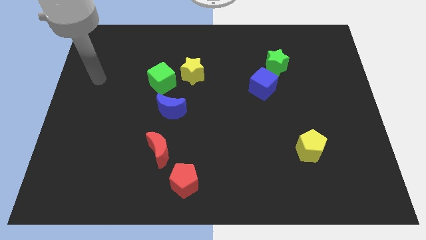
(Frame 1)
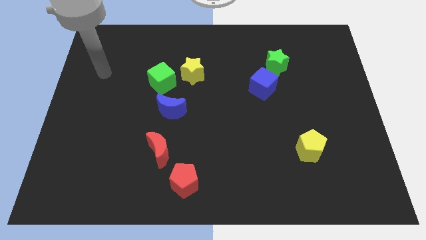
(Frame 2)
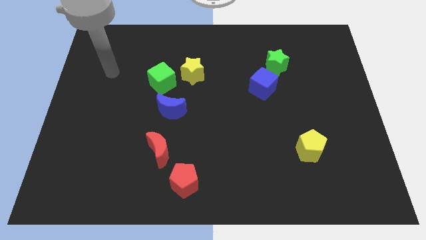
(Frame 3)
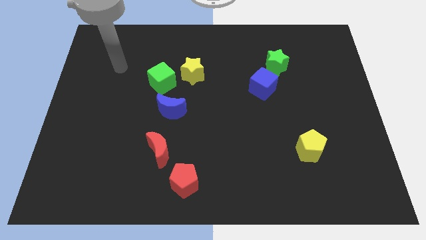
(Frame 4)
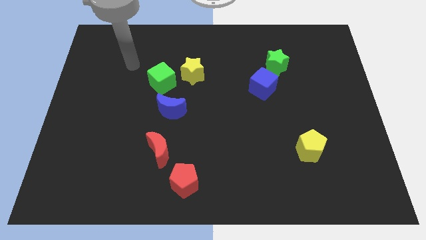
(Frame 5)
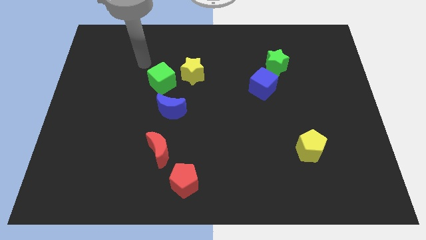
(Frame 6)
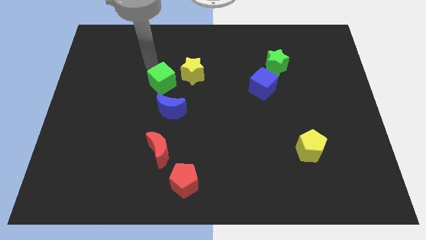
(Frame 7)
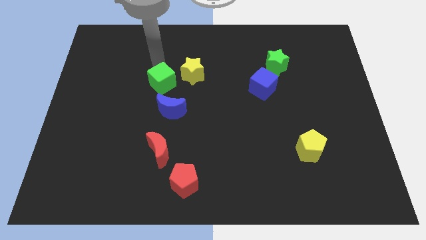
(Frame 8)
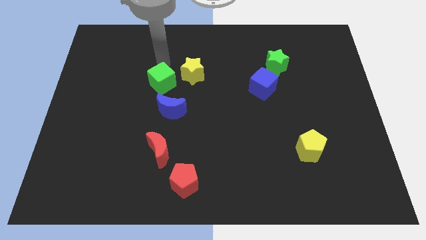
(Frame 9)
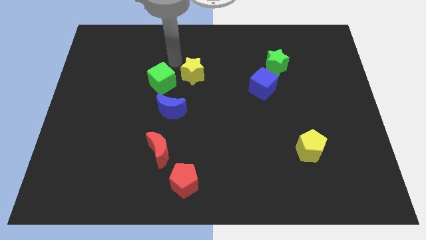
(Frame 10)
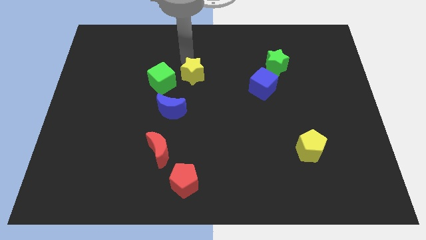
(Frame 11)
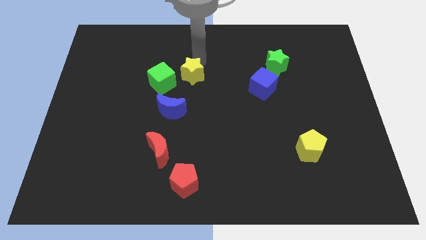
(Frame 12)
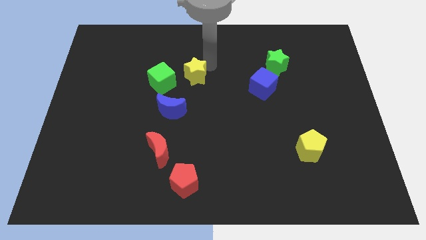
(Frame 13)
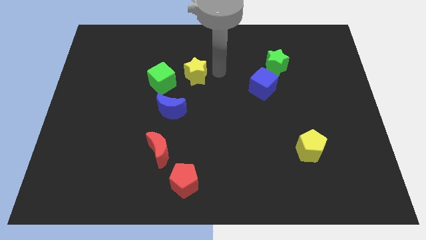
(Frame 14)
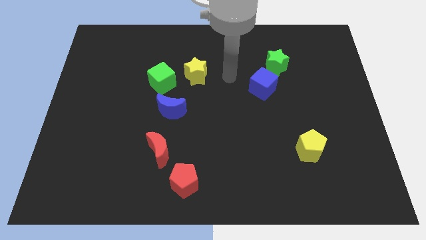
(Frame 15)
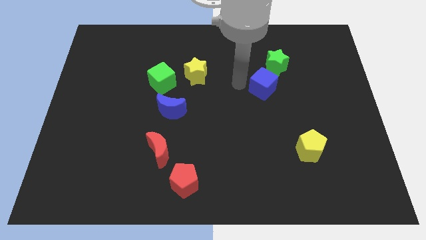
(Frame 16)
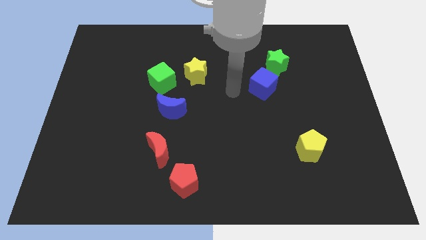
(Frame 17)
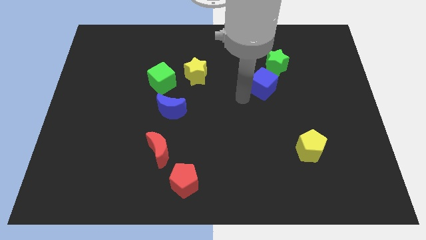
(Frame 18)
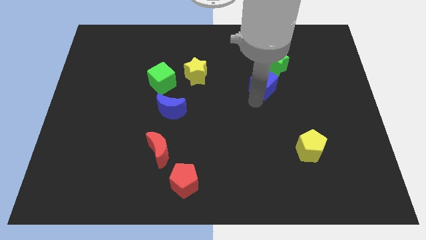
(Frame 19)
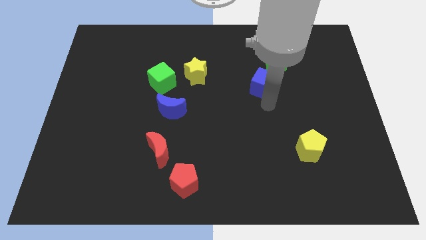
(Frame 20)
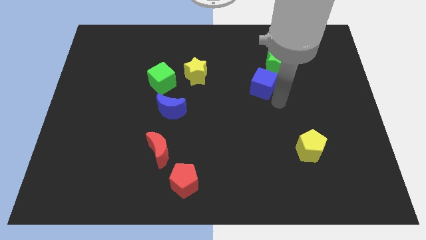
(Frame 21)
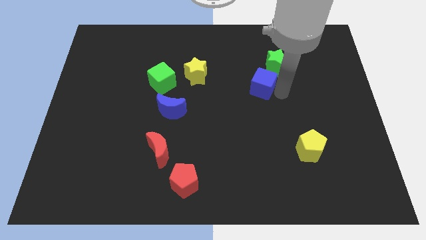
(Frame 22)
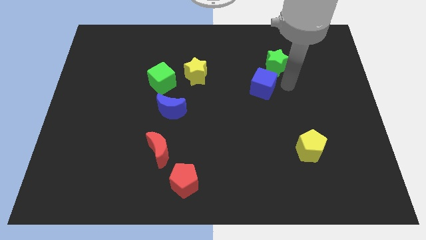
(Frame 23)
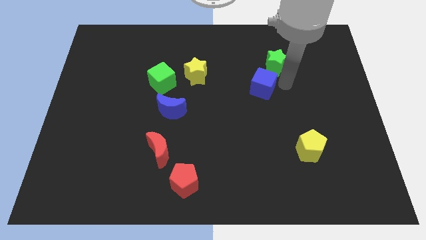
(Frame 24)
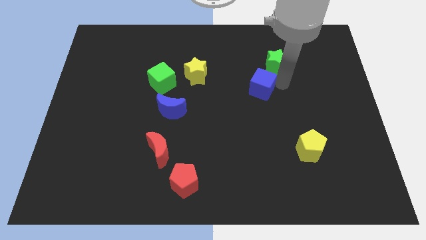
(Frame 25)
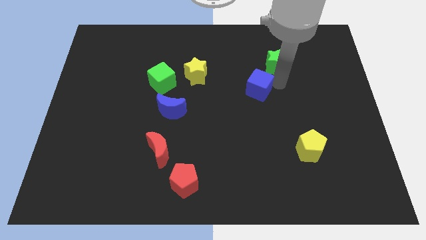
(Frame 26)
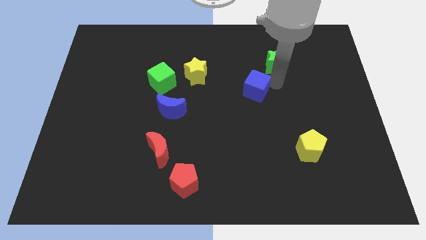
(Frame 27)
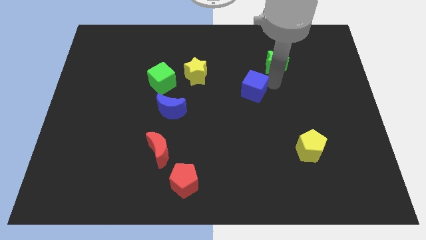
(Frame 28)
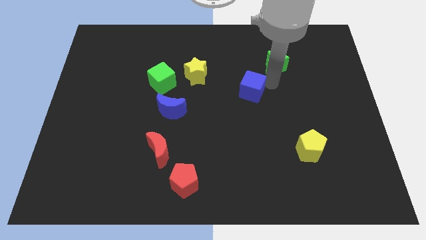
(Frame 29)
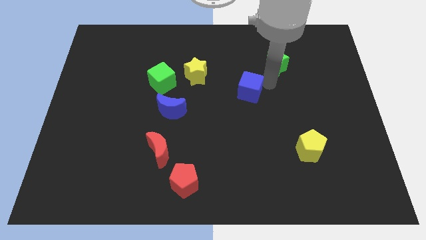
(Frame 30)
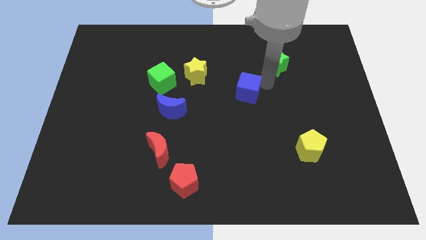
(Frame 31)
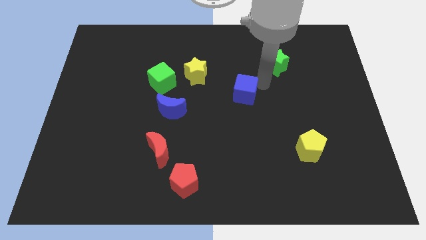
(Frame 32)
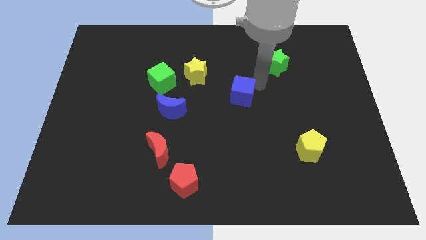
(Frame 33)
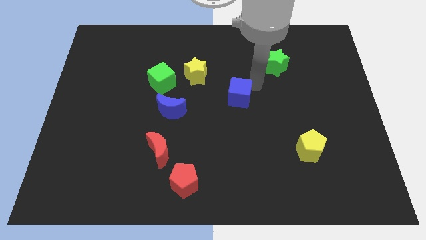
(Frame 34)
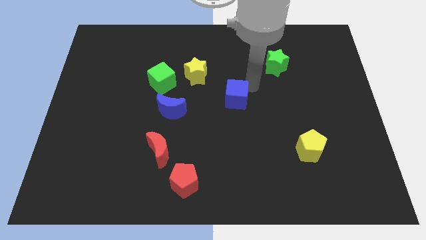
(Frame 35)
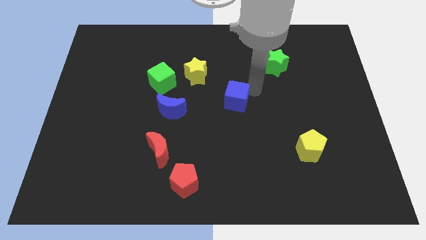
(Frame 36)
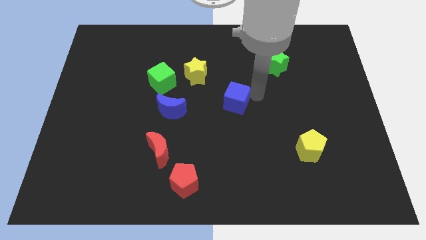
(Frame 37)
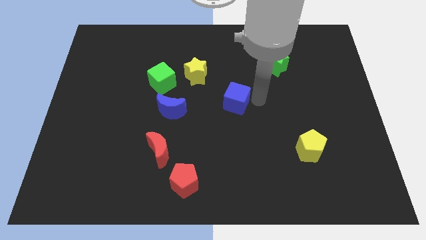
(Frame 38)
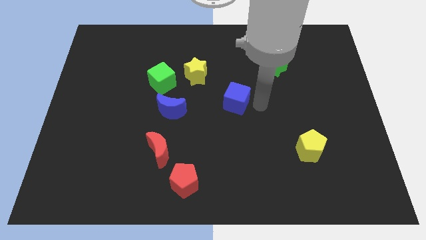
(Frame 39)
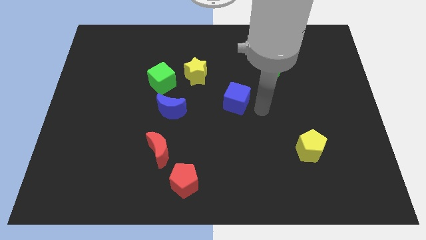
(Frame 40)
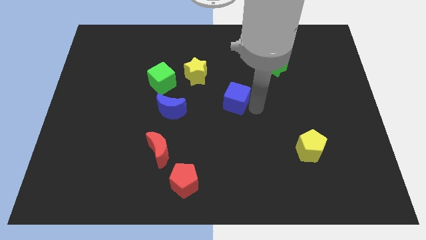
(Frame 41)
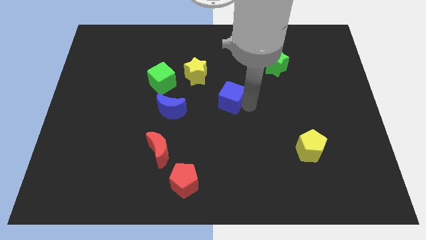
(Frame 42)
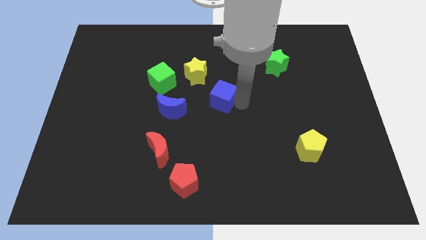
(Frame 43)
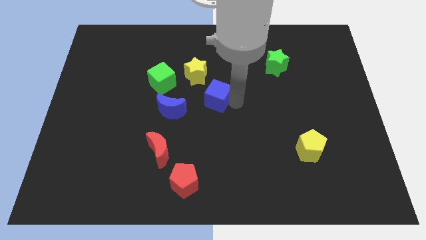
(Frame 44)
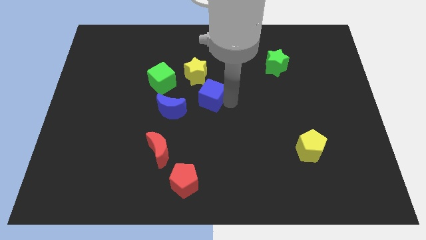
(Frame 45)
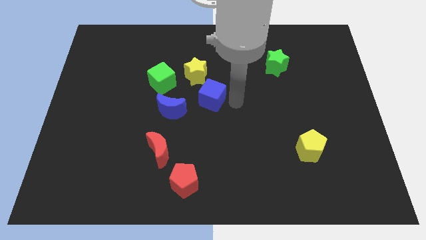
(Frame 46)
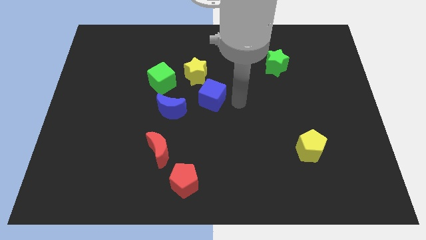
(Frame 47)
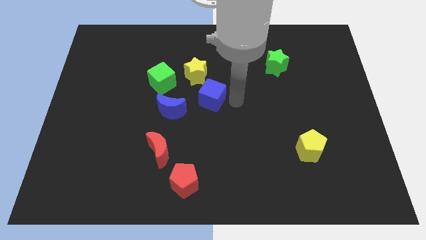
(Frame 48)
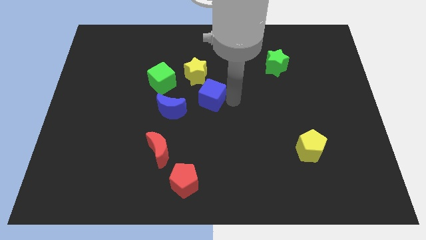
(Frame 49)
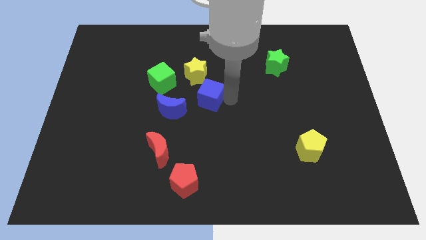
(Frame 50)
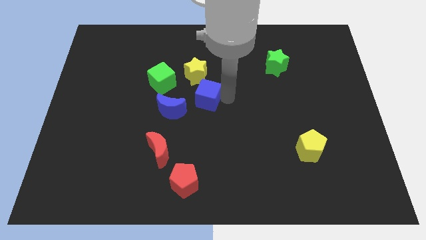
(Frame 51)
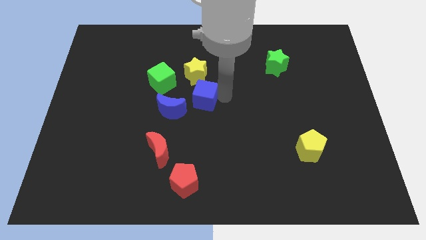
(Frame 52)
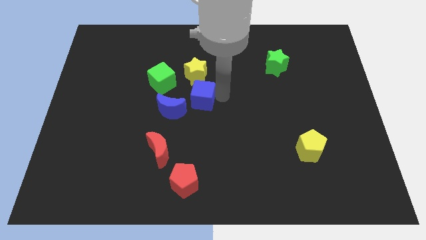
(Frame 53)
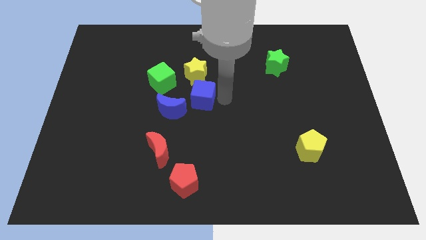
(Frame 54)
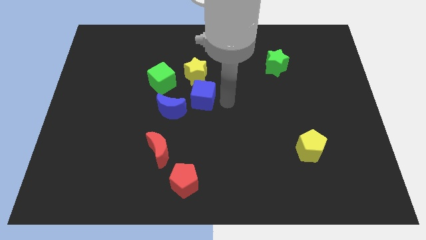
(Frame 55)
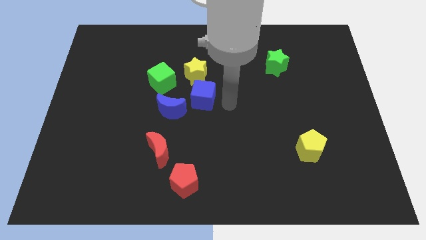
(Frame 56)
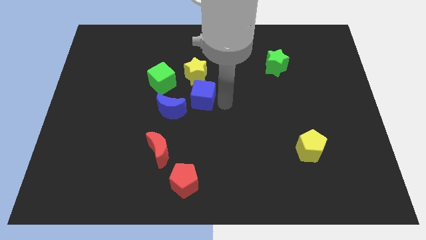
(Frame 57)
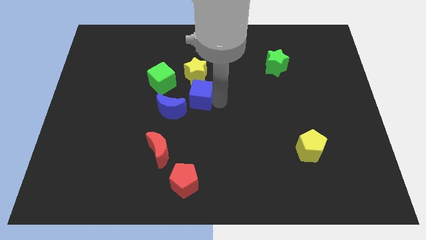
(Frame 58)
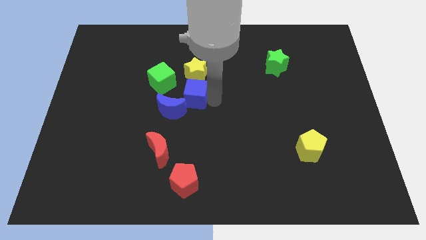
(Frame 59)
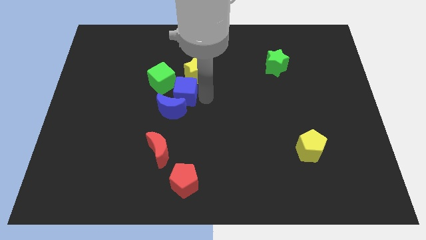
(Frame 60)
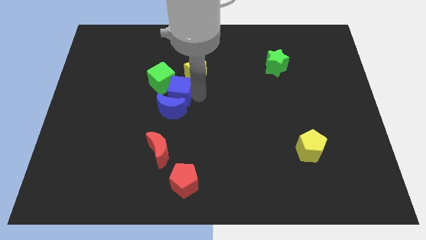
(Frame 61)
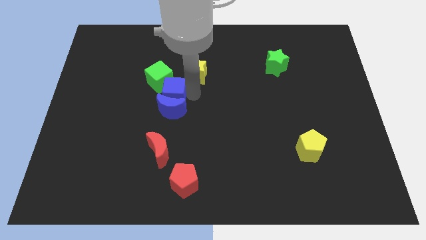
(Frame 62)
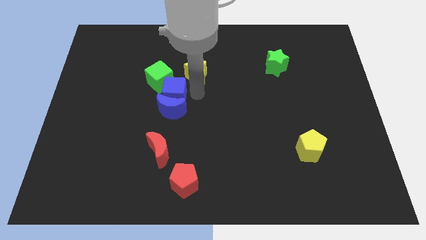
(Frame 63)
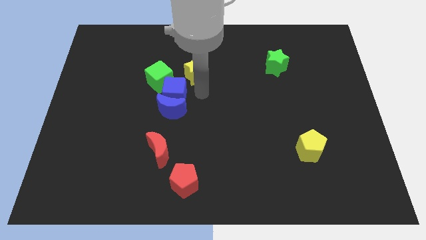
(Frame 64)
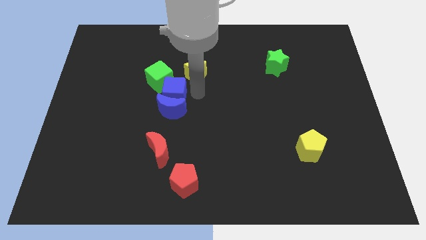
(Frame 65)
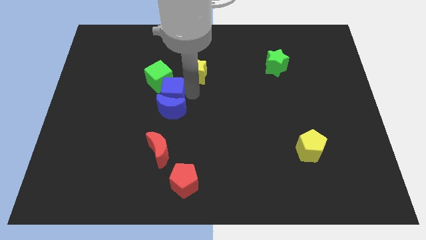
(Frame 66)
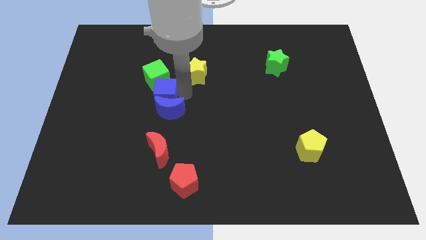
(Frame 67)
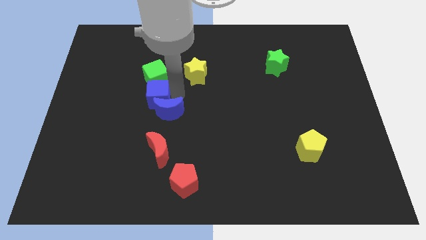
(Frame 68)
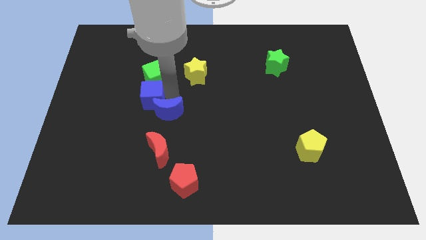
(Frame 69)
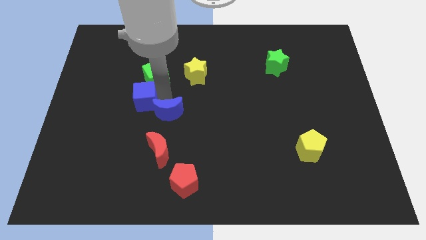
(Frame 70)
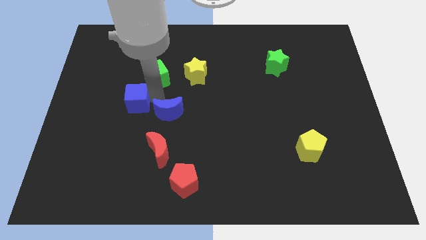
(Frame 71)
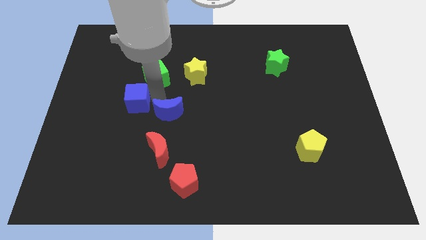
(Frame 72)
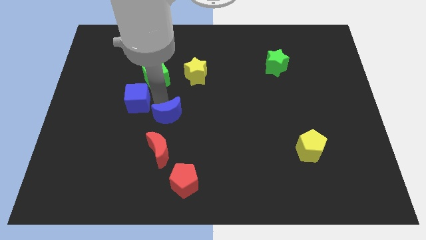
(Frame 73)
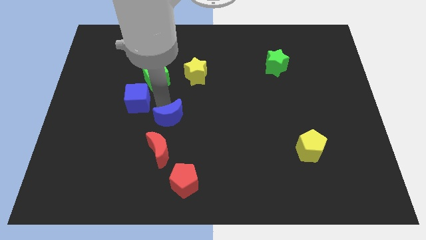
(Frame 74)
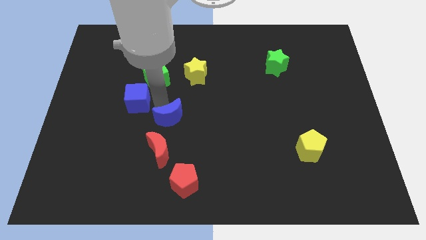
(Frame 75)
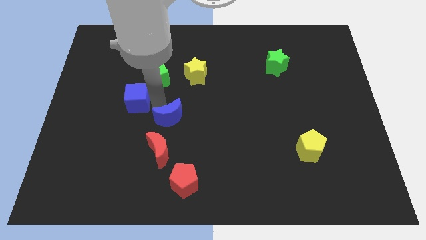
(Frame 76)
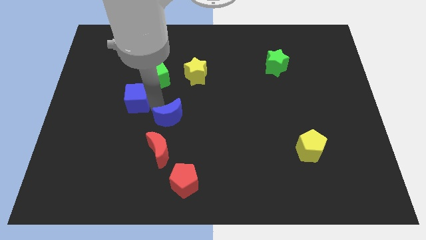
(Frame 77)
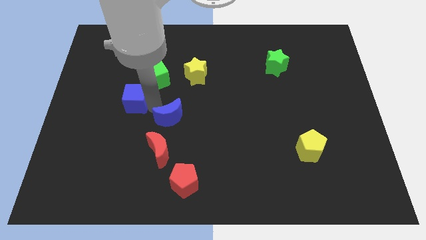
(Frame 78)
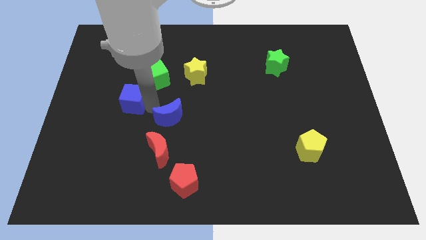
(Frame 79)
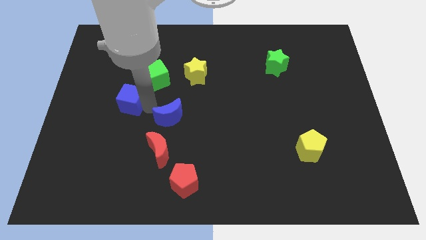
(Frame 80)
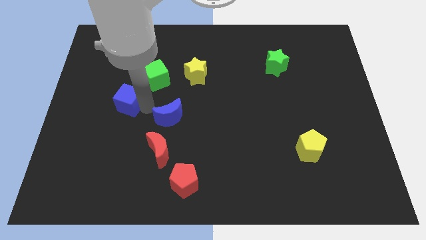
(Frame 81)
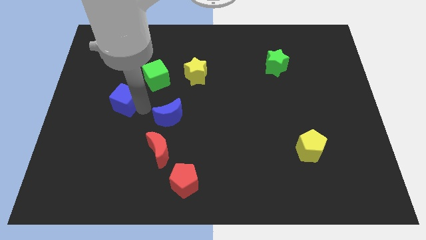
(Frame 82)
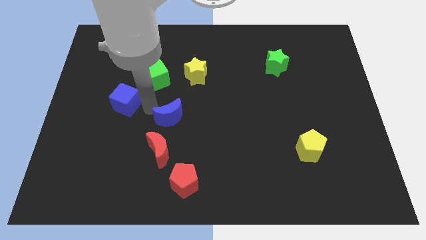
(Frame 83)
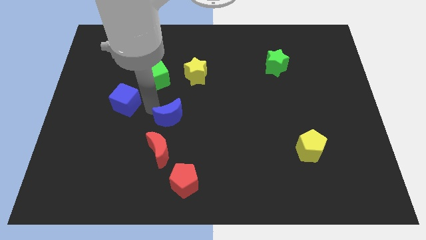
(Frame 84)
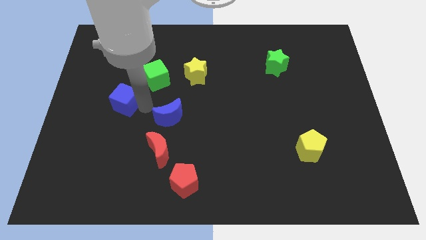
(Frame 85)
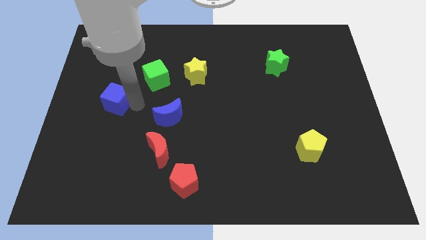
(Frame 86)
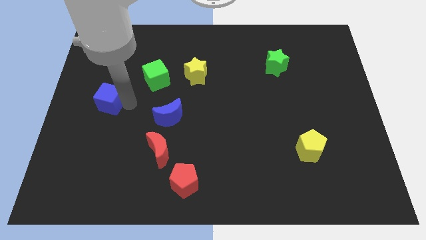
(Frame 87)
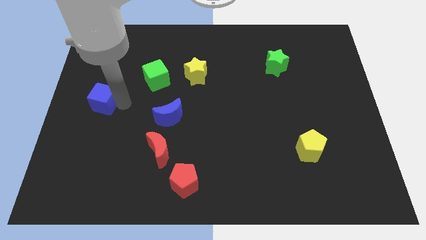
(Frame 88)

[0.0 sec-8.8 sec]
move the blue cube to the left side of the board
